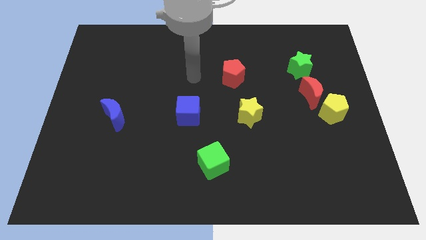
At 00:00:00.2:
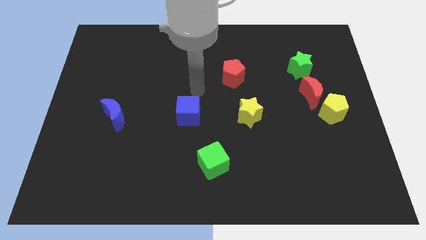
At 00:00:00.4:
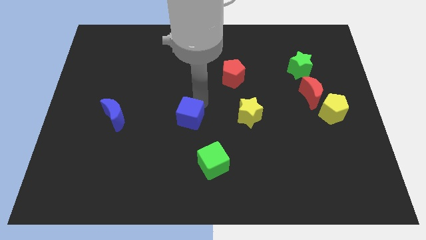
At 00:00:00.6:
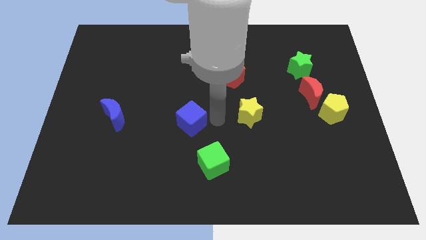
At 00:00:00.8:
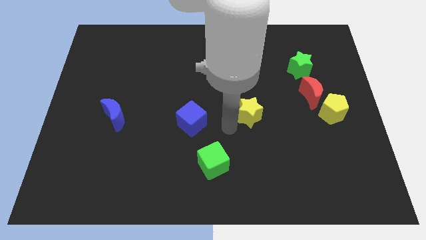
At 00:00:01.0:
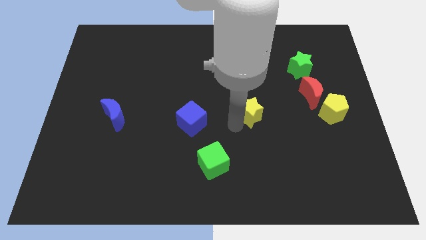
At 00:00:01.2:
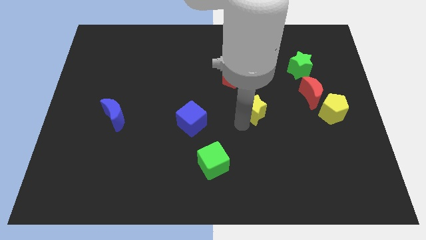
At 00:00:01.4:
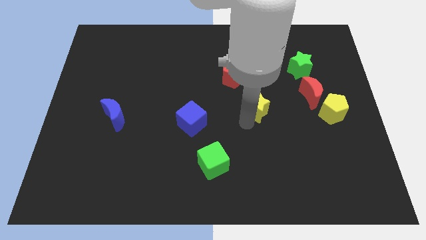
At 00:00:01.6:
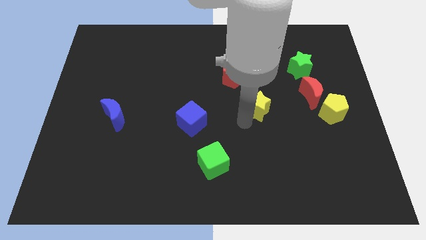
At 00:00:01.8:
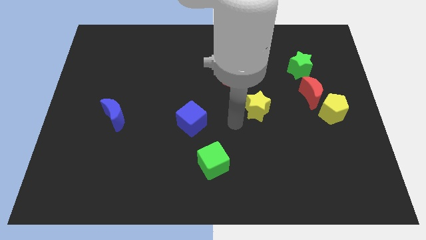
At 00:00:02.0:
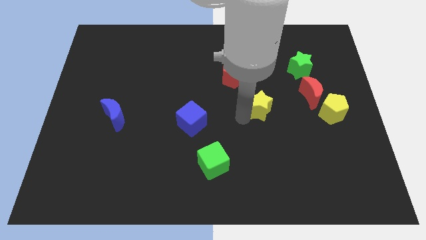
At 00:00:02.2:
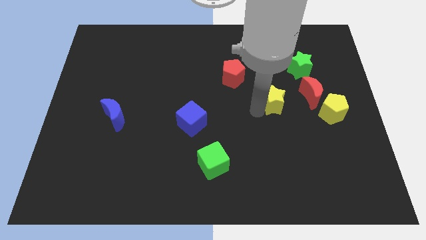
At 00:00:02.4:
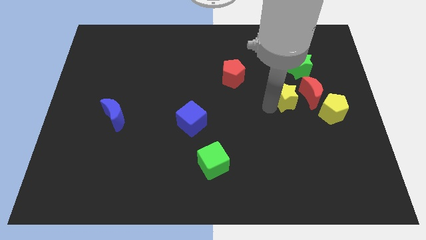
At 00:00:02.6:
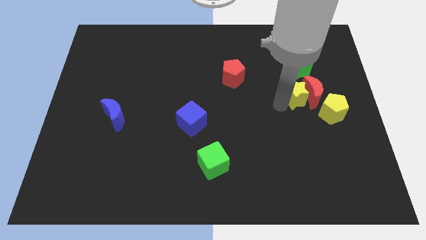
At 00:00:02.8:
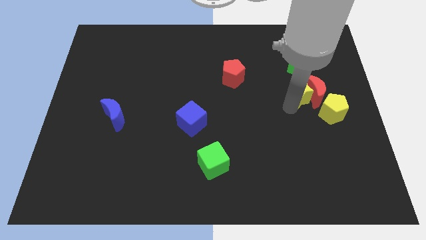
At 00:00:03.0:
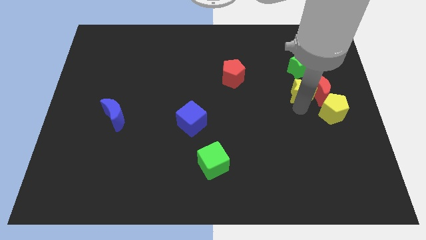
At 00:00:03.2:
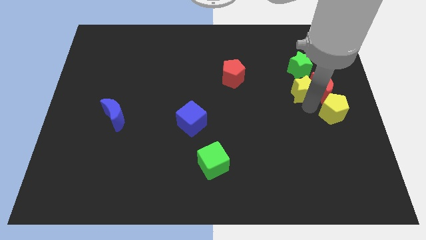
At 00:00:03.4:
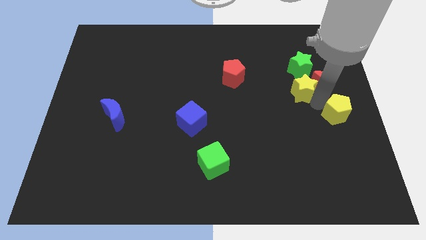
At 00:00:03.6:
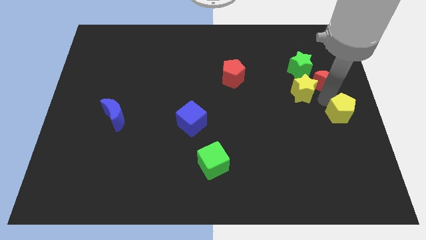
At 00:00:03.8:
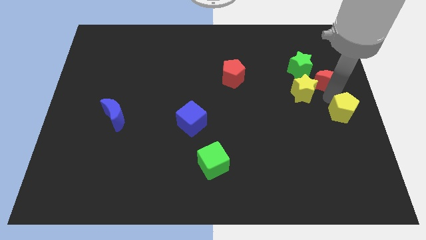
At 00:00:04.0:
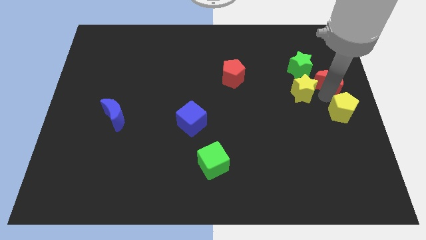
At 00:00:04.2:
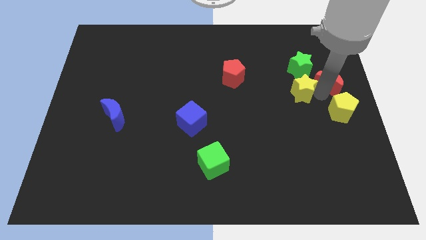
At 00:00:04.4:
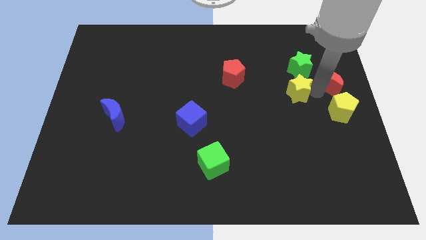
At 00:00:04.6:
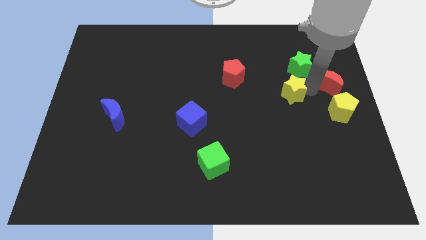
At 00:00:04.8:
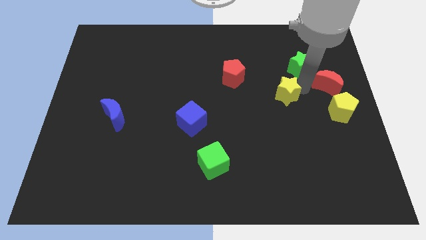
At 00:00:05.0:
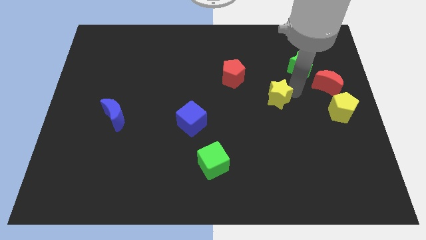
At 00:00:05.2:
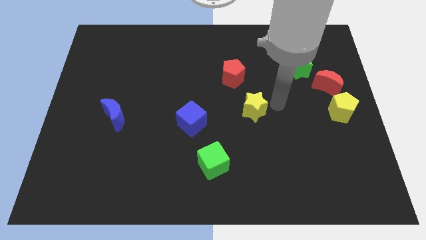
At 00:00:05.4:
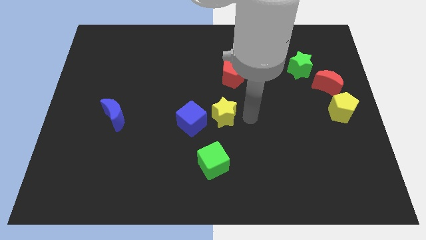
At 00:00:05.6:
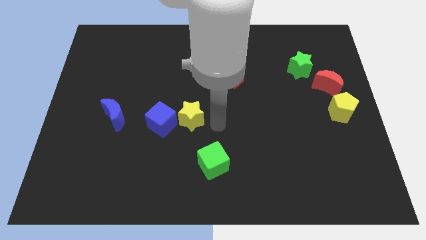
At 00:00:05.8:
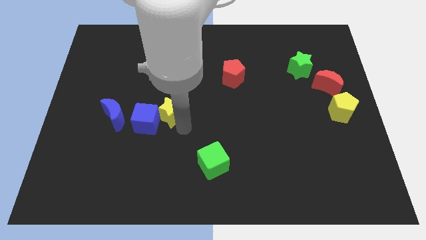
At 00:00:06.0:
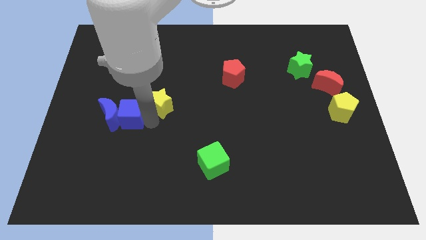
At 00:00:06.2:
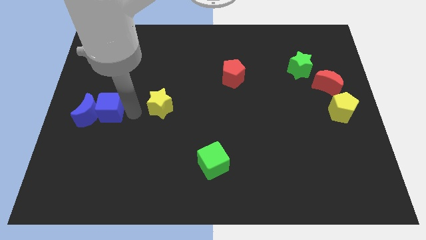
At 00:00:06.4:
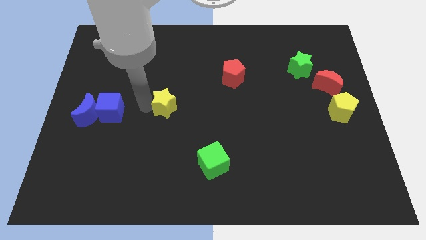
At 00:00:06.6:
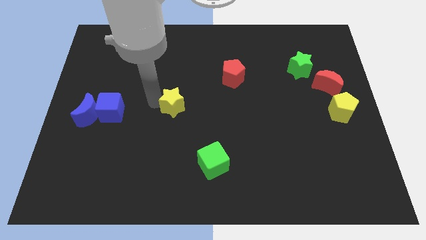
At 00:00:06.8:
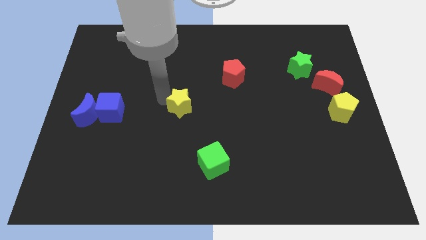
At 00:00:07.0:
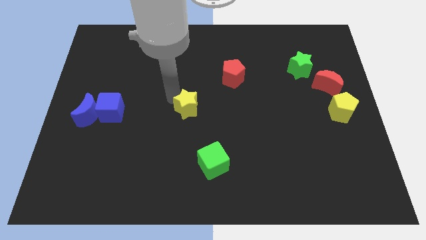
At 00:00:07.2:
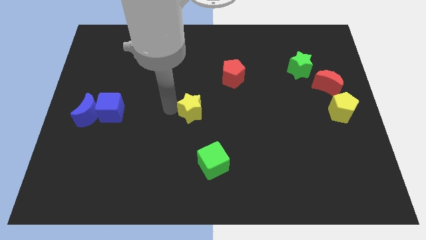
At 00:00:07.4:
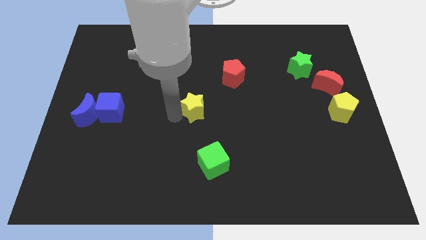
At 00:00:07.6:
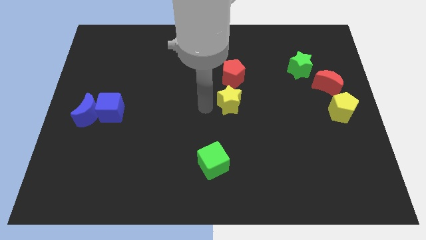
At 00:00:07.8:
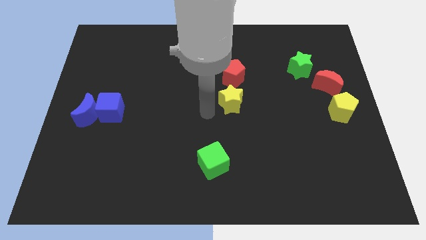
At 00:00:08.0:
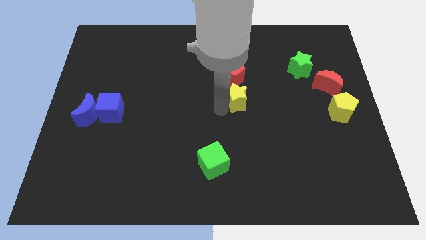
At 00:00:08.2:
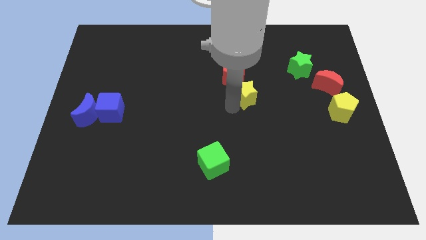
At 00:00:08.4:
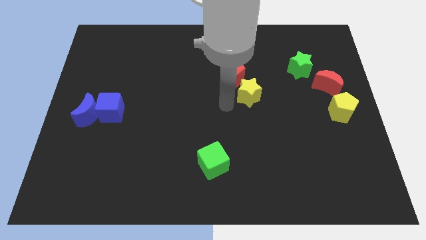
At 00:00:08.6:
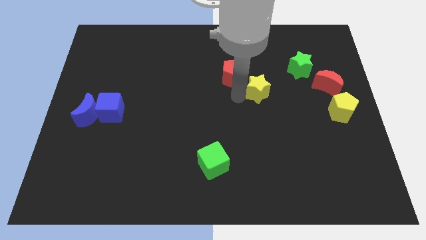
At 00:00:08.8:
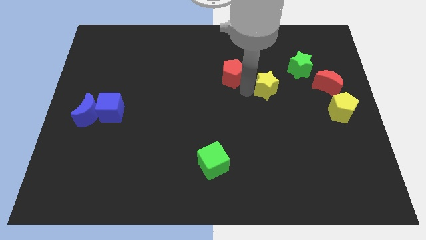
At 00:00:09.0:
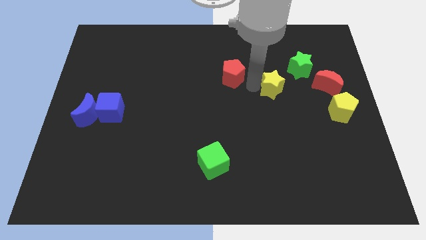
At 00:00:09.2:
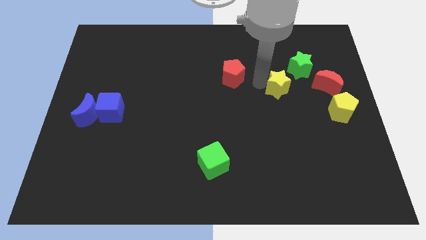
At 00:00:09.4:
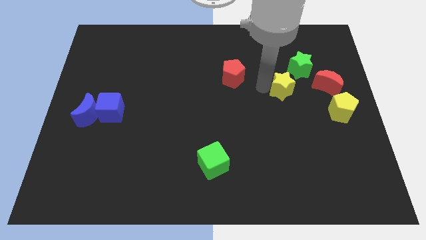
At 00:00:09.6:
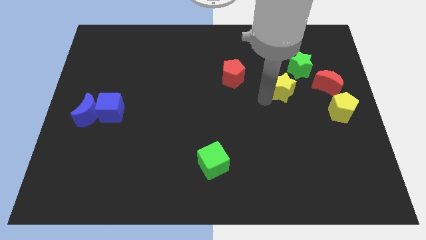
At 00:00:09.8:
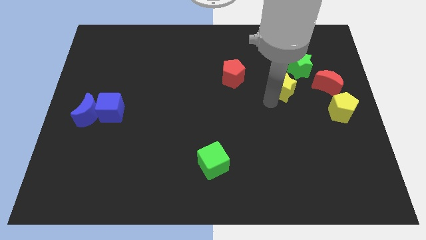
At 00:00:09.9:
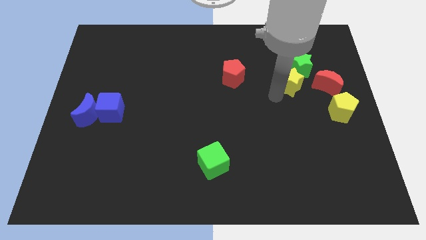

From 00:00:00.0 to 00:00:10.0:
move the yellow star to the green star

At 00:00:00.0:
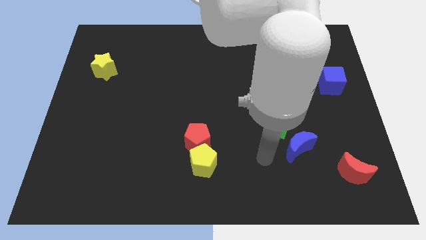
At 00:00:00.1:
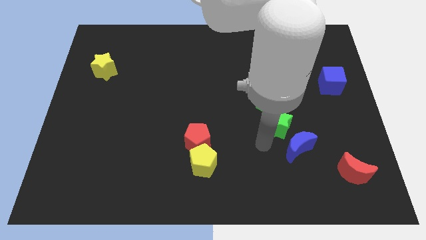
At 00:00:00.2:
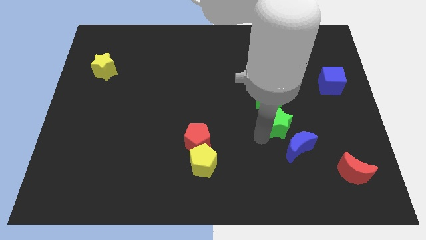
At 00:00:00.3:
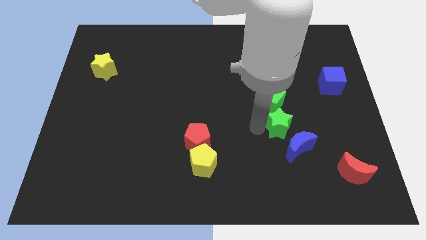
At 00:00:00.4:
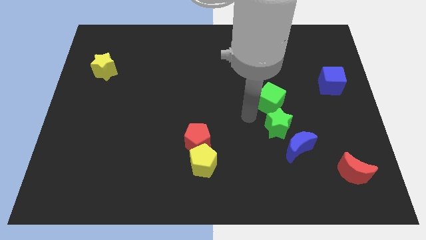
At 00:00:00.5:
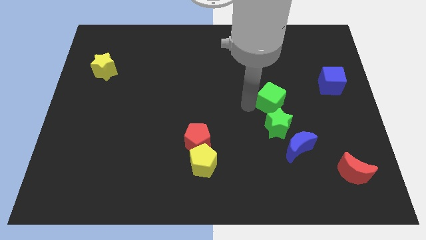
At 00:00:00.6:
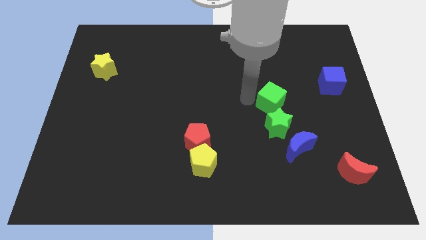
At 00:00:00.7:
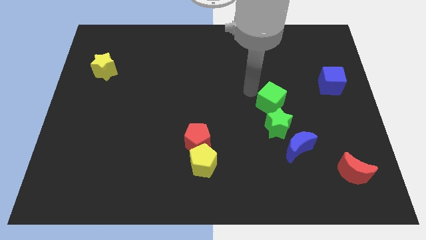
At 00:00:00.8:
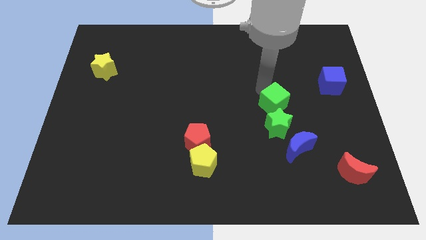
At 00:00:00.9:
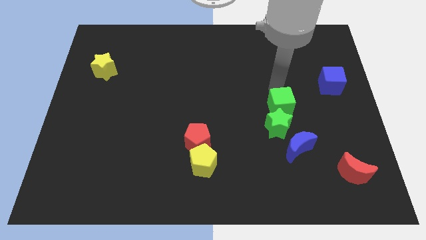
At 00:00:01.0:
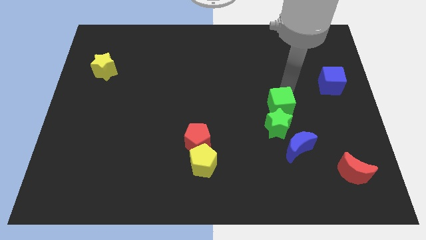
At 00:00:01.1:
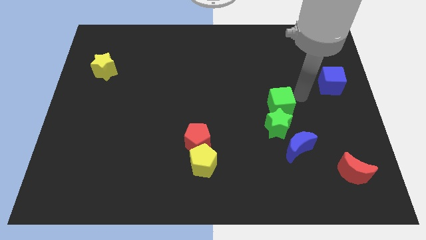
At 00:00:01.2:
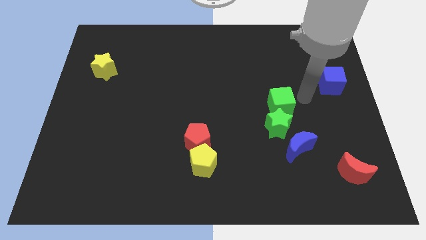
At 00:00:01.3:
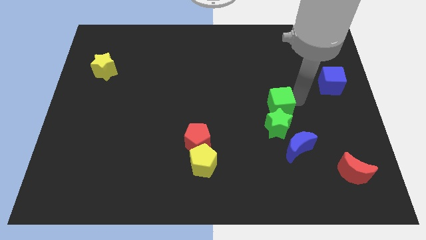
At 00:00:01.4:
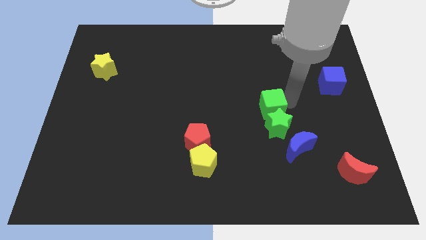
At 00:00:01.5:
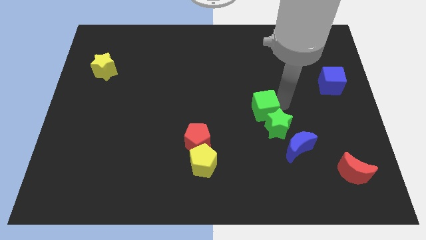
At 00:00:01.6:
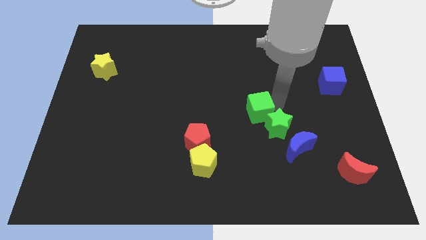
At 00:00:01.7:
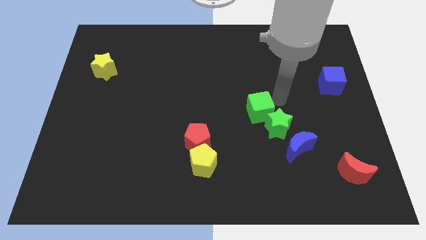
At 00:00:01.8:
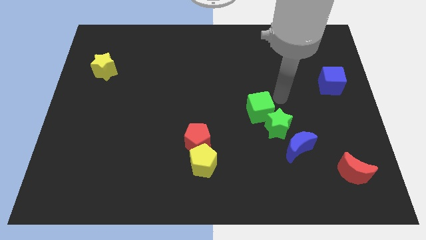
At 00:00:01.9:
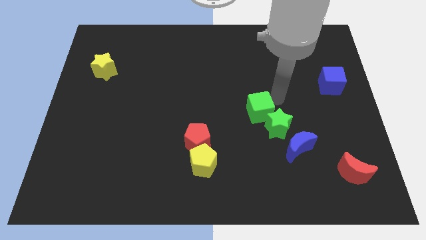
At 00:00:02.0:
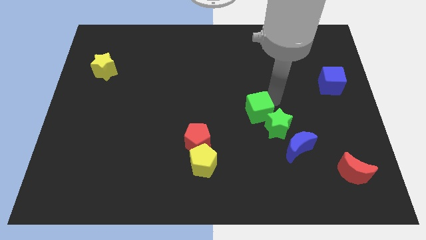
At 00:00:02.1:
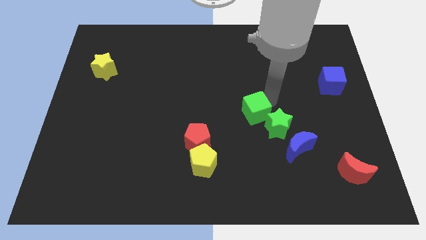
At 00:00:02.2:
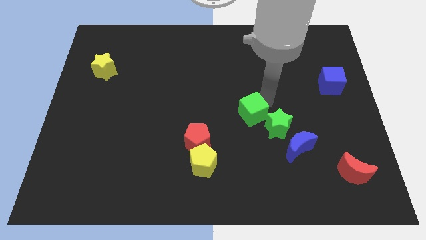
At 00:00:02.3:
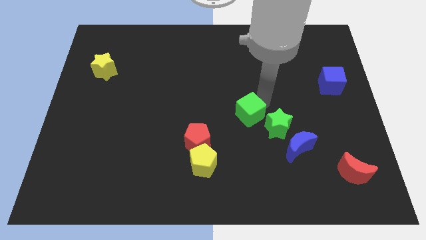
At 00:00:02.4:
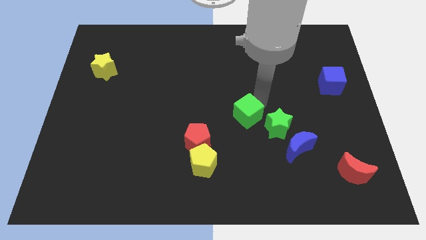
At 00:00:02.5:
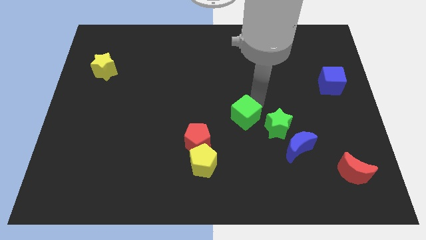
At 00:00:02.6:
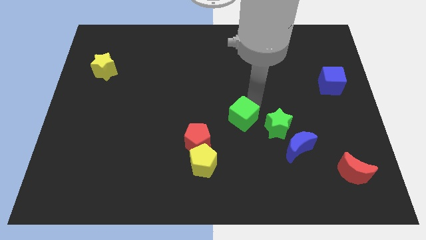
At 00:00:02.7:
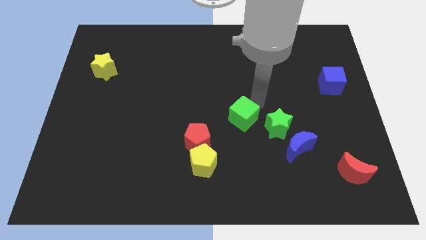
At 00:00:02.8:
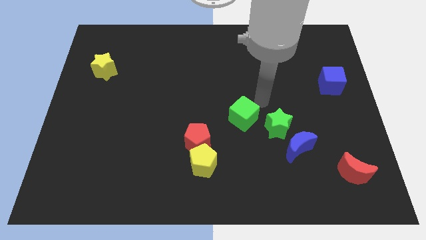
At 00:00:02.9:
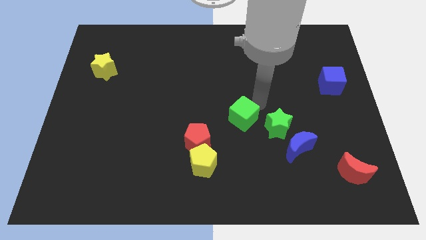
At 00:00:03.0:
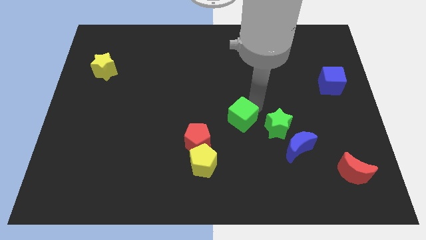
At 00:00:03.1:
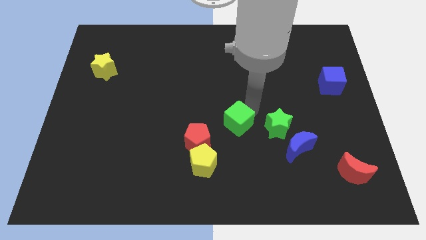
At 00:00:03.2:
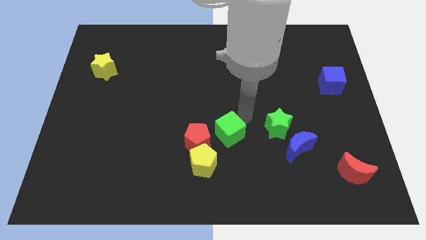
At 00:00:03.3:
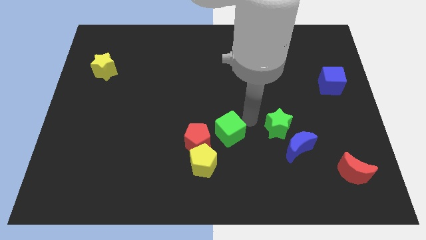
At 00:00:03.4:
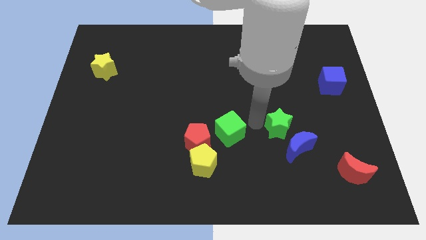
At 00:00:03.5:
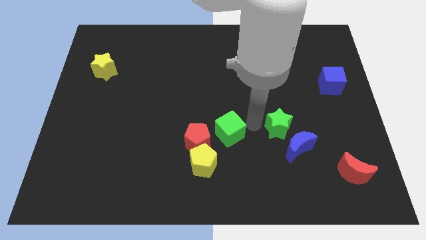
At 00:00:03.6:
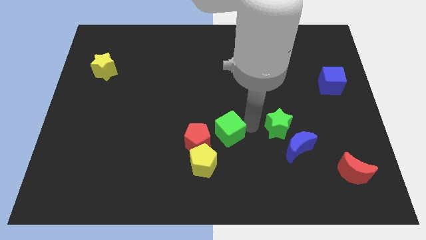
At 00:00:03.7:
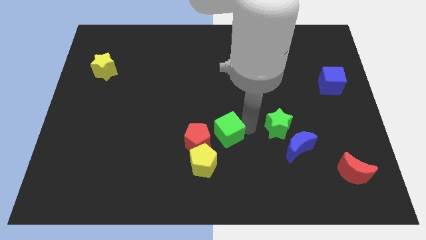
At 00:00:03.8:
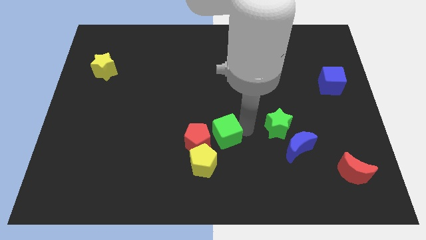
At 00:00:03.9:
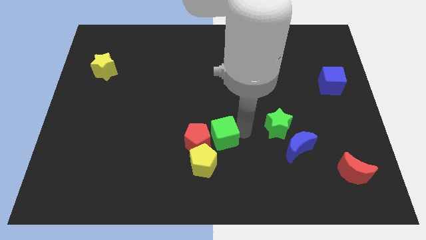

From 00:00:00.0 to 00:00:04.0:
put the green cube close to the red pentagon
